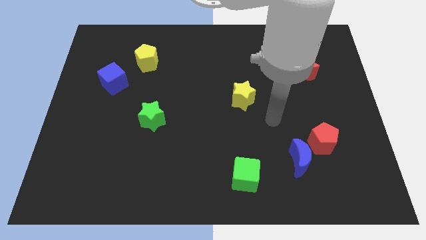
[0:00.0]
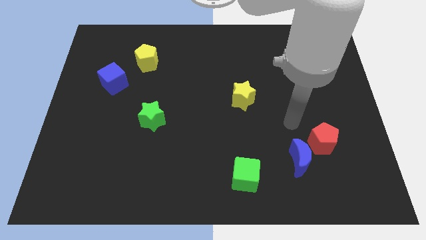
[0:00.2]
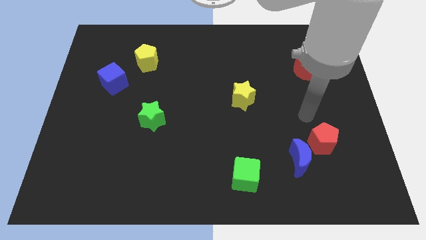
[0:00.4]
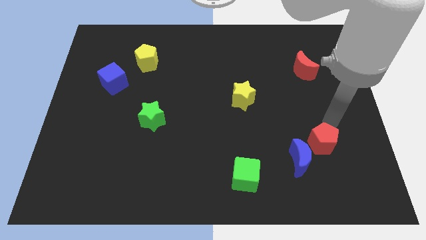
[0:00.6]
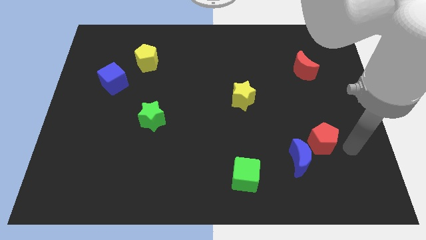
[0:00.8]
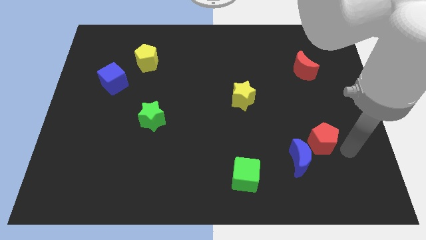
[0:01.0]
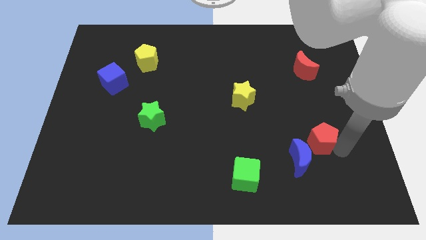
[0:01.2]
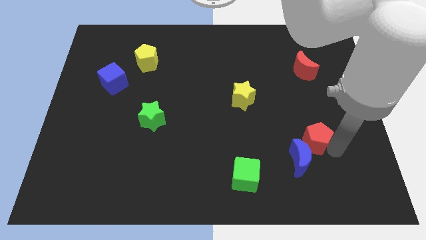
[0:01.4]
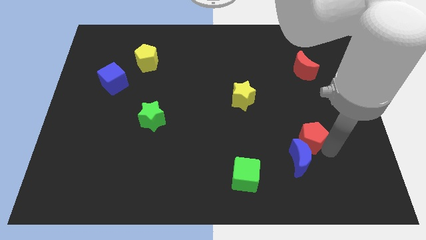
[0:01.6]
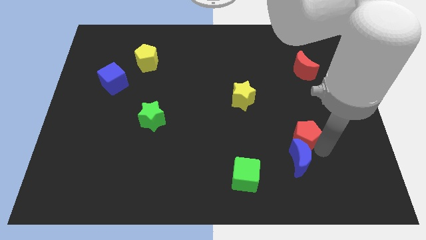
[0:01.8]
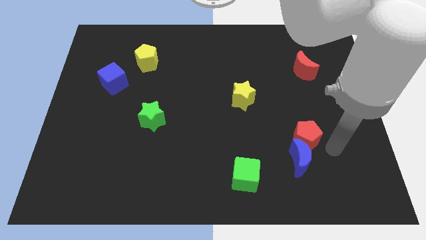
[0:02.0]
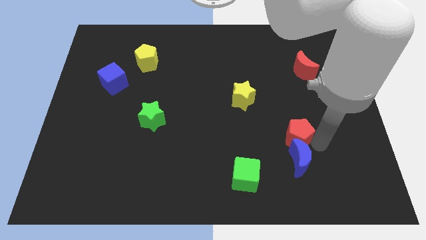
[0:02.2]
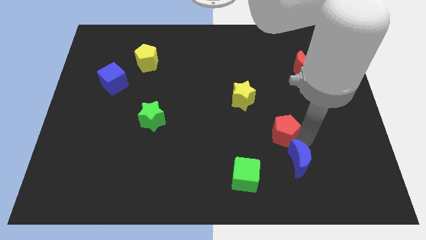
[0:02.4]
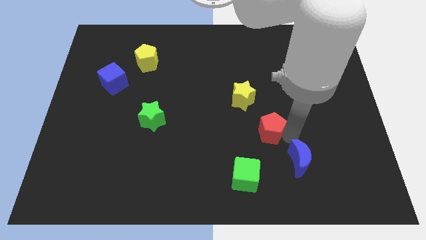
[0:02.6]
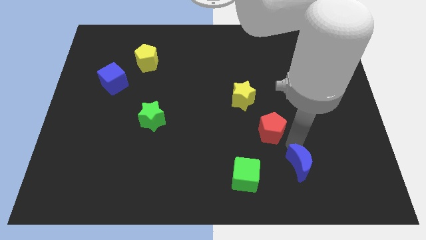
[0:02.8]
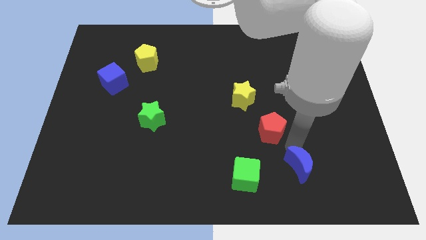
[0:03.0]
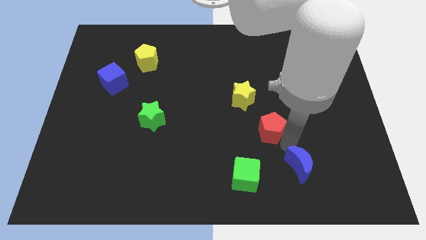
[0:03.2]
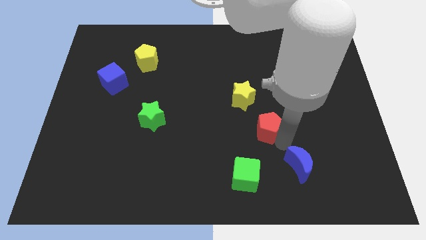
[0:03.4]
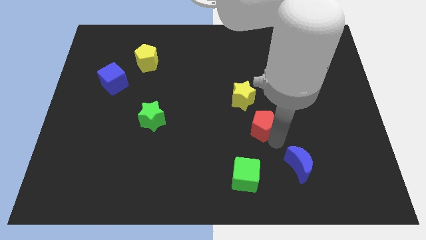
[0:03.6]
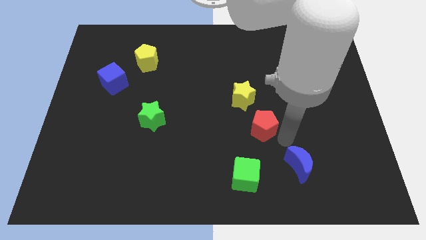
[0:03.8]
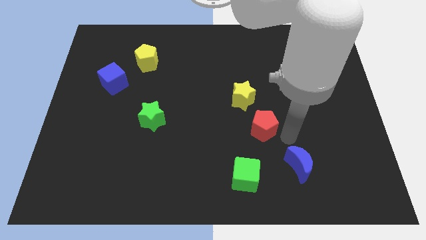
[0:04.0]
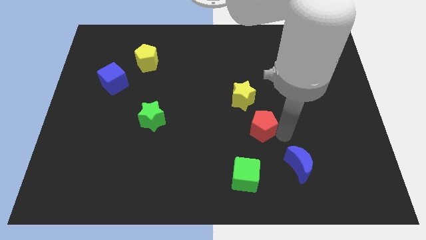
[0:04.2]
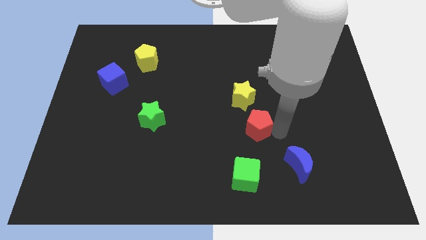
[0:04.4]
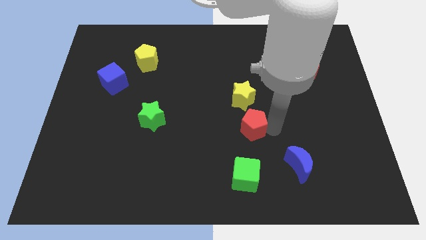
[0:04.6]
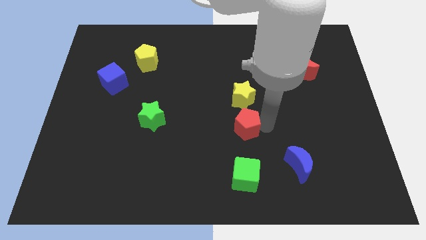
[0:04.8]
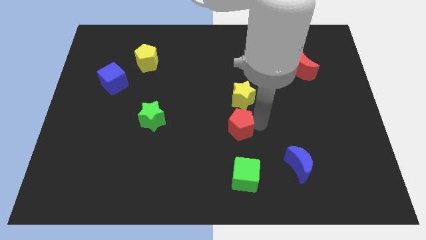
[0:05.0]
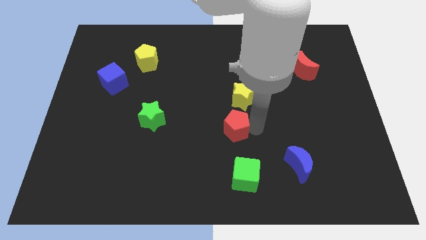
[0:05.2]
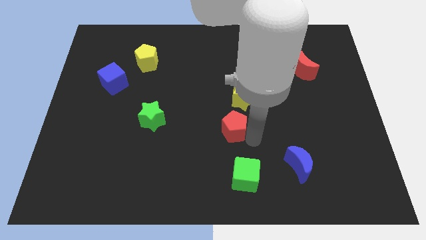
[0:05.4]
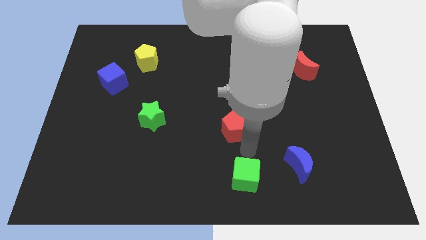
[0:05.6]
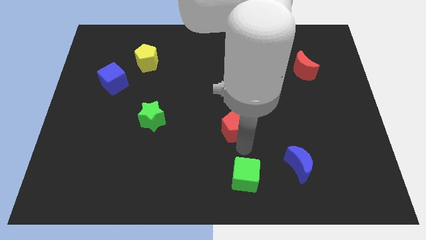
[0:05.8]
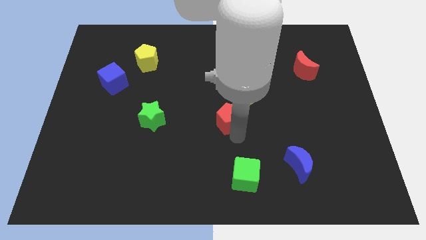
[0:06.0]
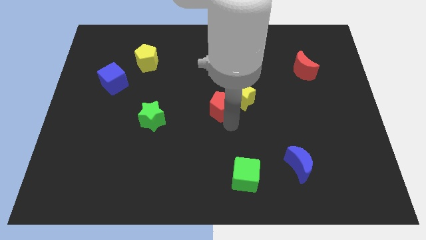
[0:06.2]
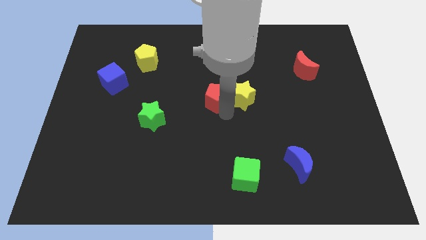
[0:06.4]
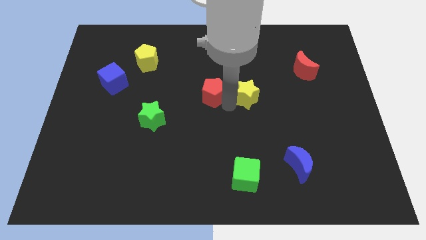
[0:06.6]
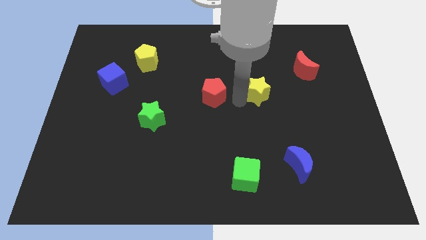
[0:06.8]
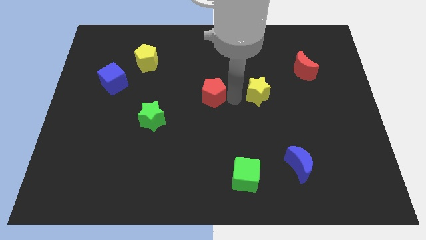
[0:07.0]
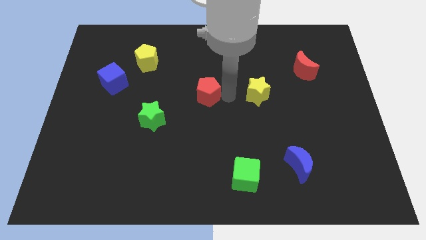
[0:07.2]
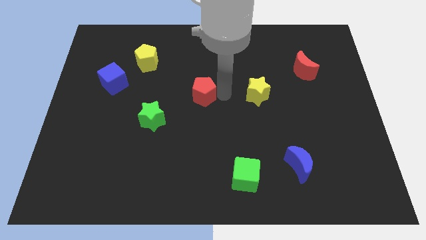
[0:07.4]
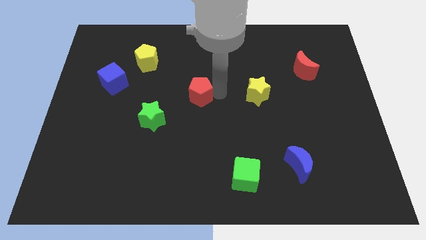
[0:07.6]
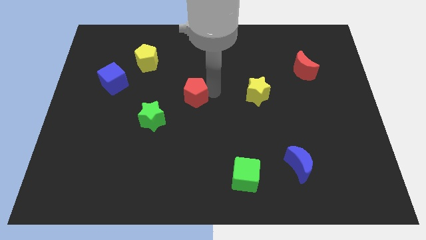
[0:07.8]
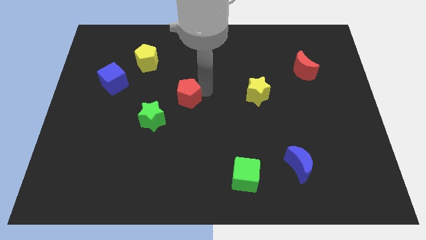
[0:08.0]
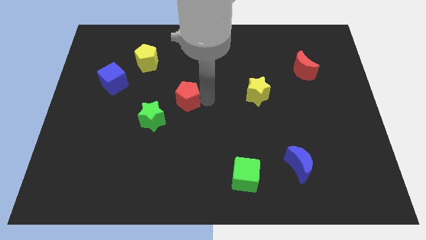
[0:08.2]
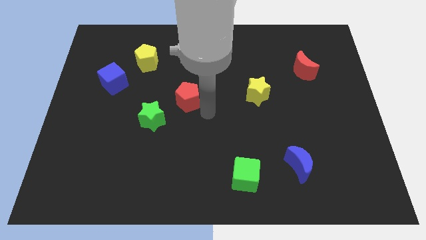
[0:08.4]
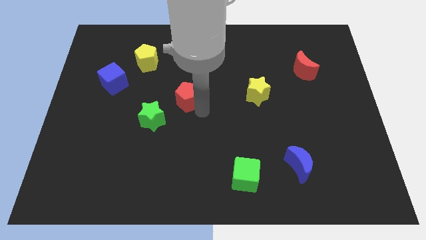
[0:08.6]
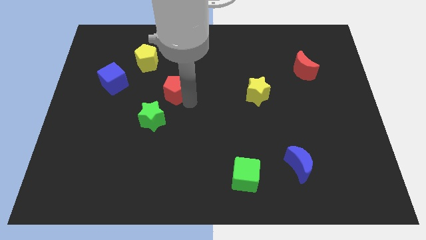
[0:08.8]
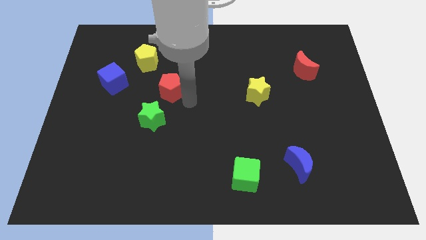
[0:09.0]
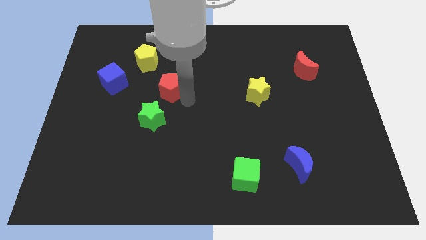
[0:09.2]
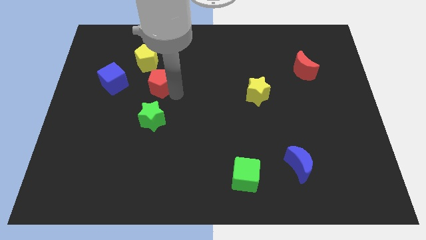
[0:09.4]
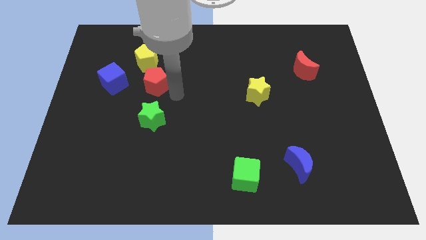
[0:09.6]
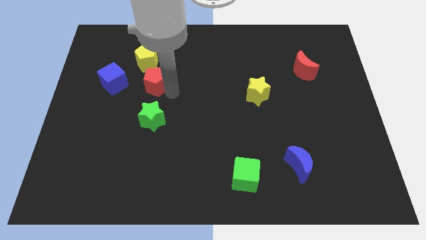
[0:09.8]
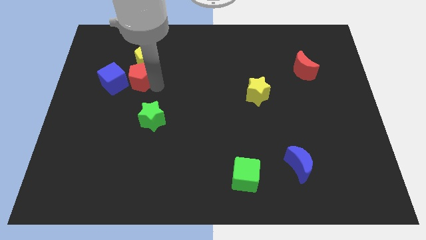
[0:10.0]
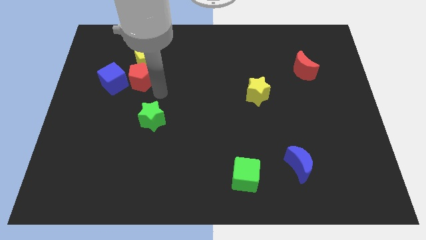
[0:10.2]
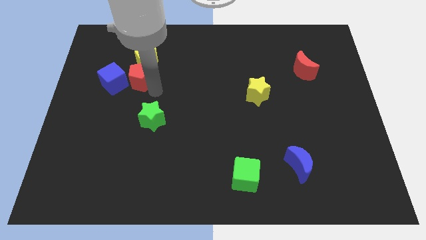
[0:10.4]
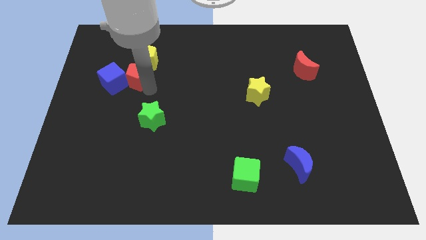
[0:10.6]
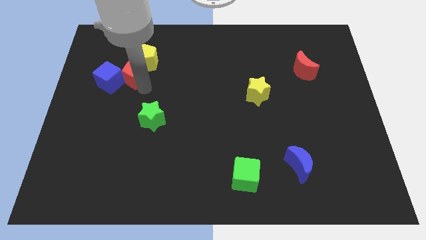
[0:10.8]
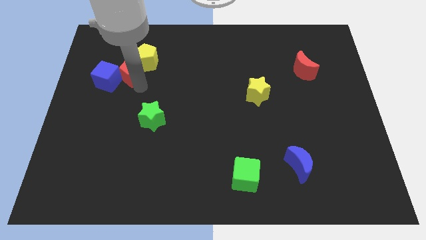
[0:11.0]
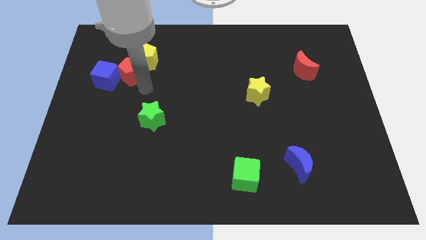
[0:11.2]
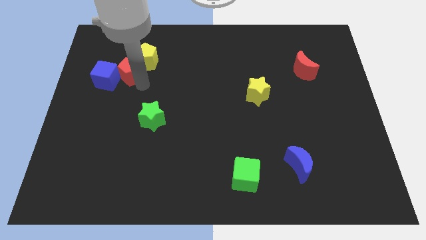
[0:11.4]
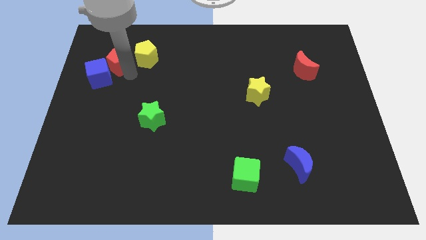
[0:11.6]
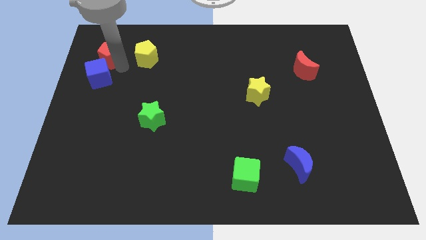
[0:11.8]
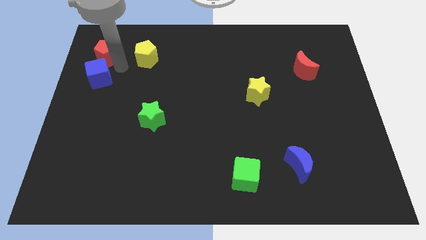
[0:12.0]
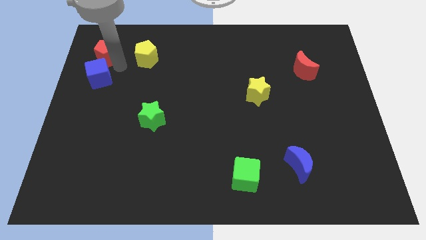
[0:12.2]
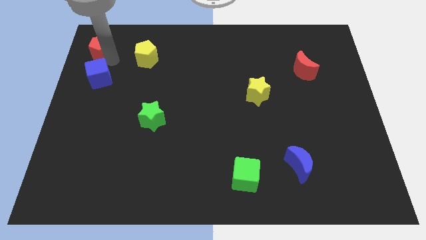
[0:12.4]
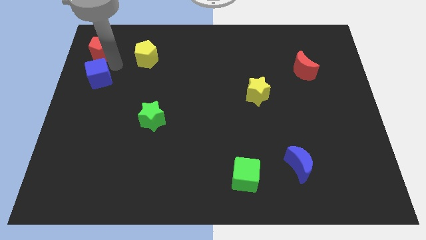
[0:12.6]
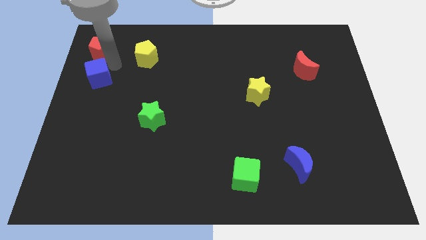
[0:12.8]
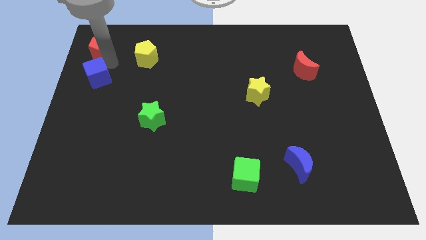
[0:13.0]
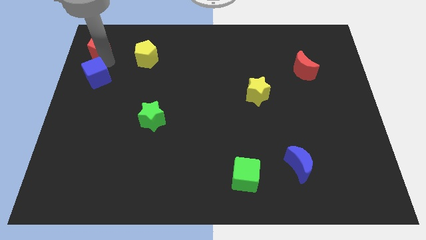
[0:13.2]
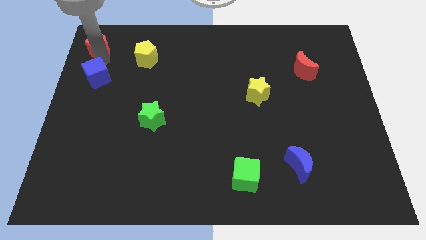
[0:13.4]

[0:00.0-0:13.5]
slide the red pentagon to the upper left corner

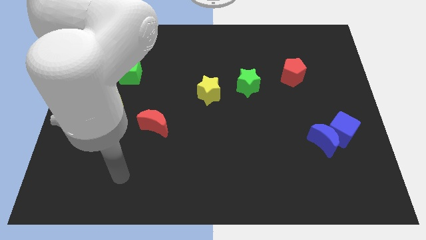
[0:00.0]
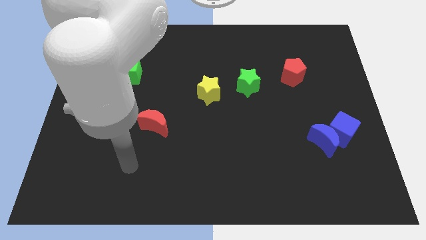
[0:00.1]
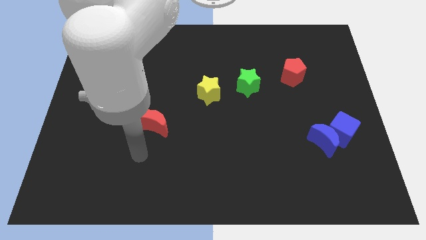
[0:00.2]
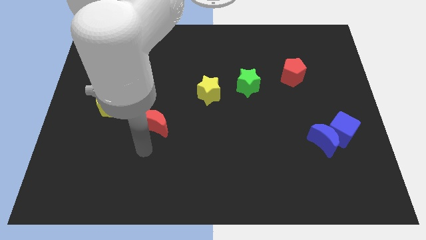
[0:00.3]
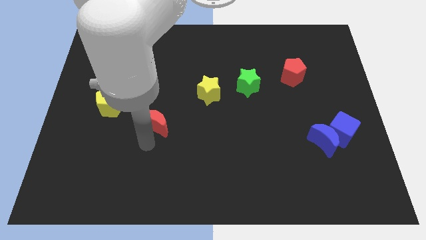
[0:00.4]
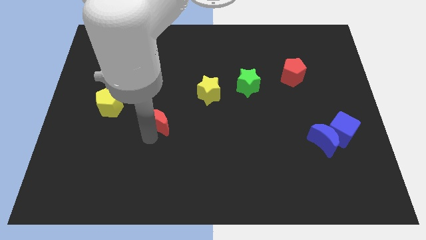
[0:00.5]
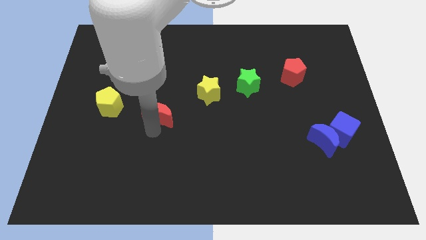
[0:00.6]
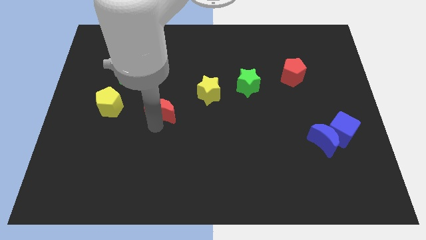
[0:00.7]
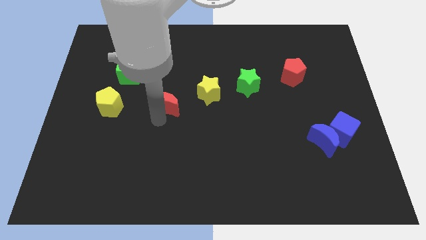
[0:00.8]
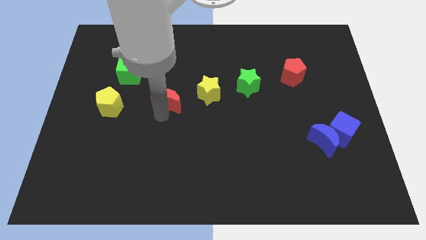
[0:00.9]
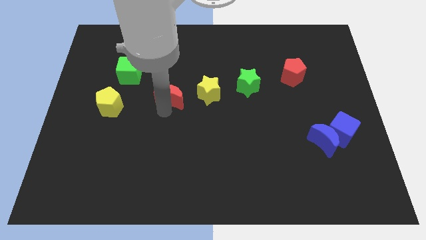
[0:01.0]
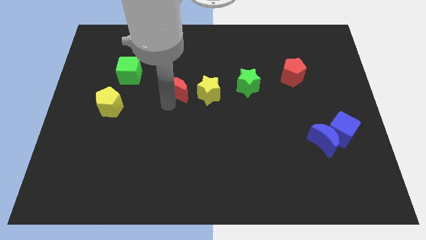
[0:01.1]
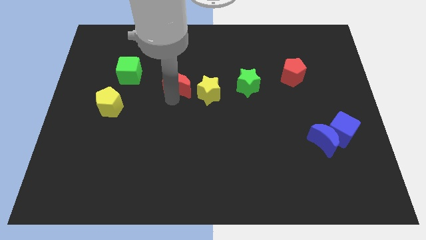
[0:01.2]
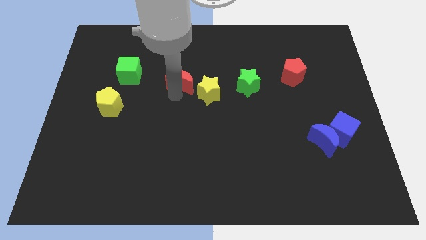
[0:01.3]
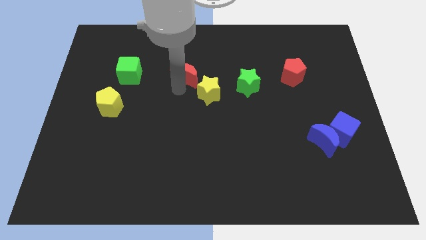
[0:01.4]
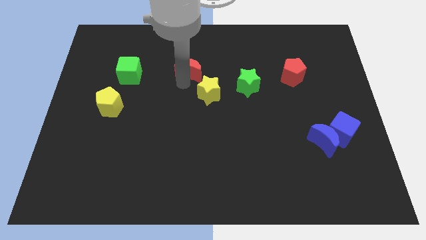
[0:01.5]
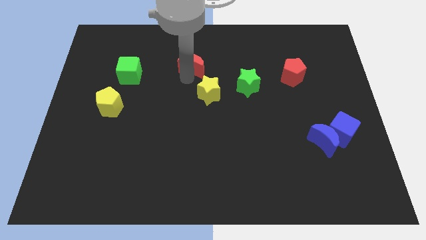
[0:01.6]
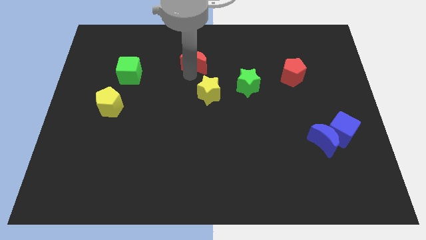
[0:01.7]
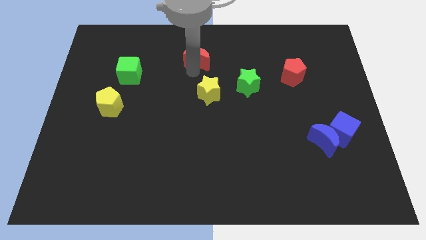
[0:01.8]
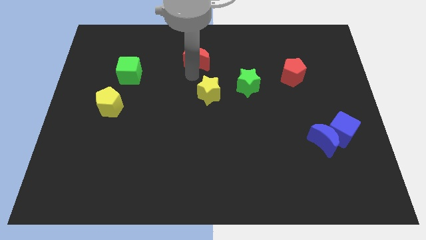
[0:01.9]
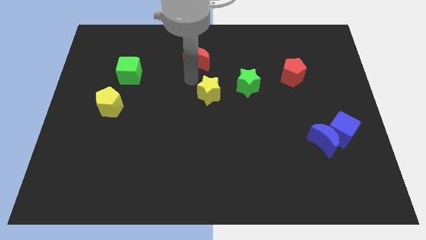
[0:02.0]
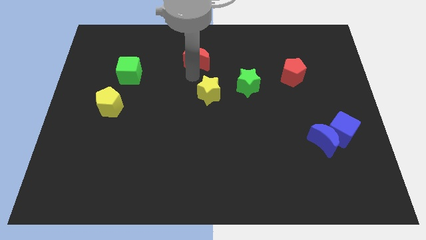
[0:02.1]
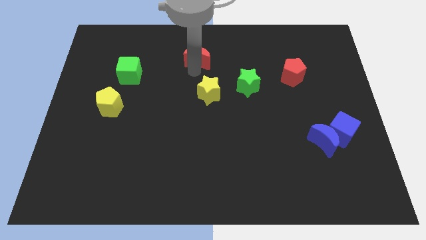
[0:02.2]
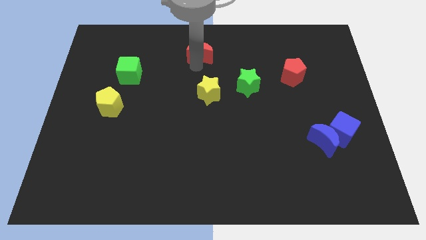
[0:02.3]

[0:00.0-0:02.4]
move the red moon to the top side
